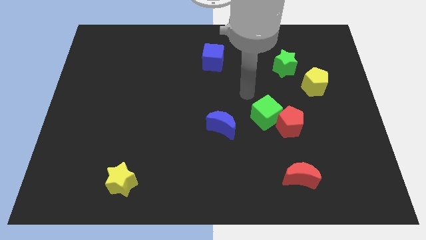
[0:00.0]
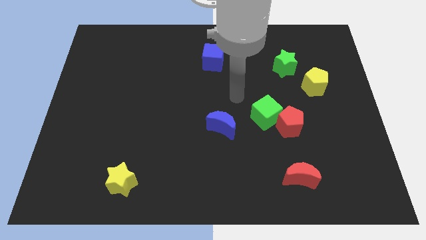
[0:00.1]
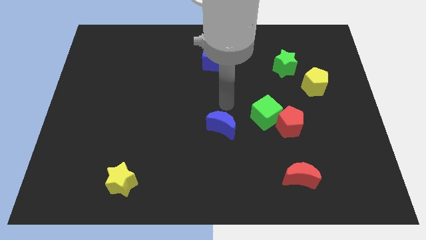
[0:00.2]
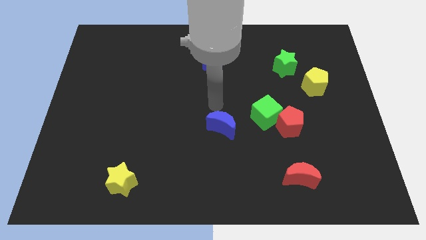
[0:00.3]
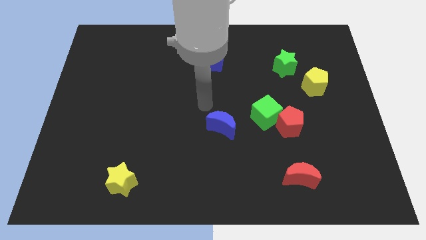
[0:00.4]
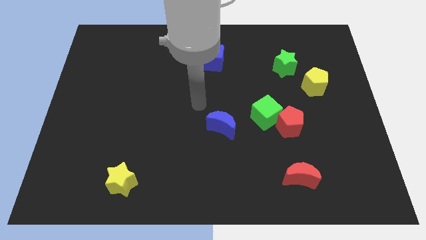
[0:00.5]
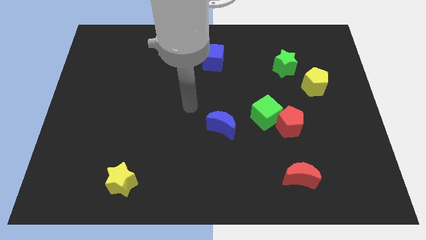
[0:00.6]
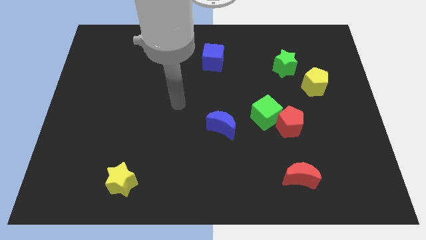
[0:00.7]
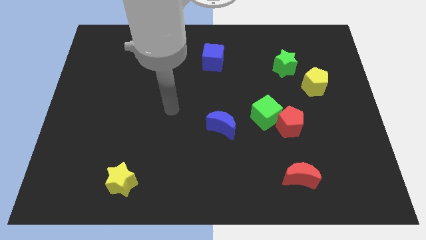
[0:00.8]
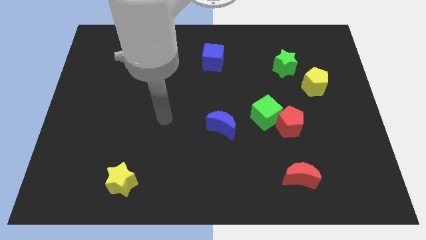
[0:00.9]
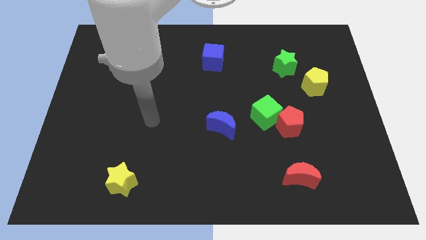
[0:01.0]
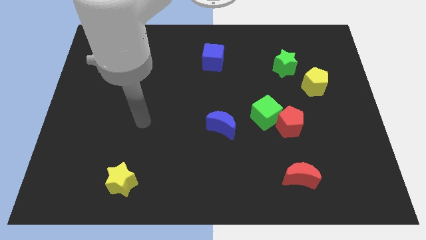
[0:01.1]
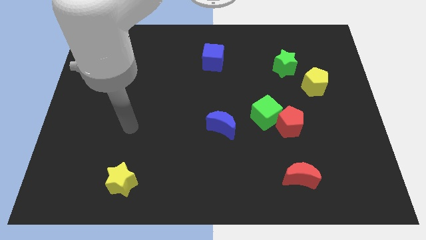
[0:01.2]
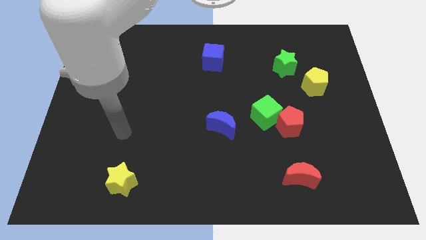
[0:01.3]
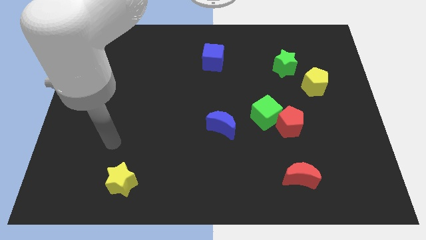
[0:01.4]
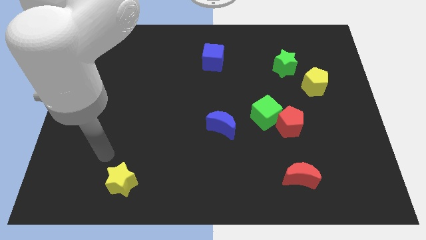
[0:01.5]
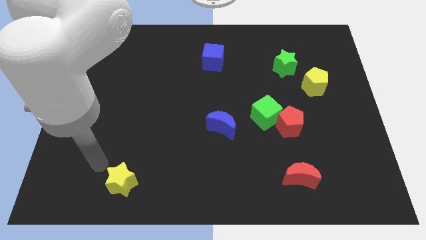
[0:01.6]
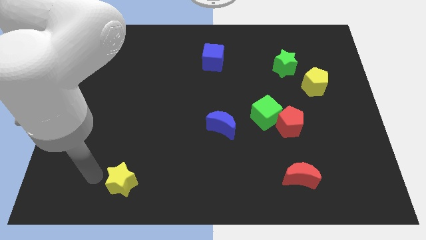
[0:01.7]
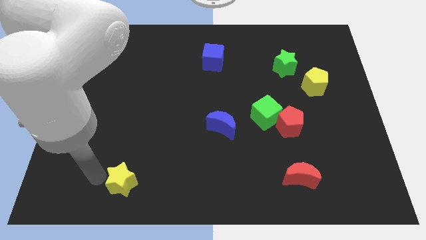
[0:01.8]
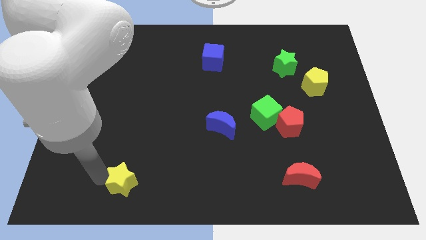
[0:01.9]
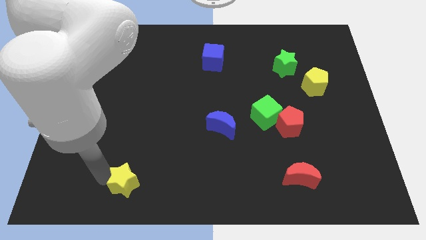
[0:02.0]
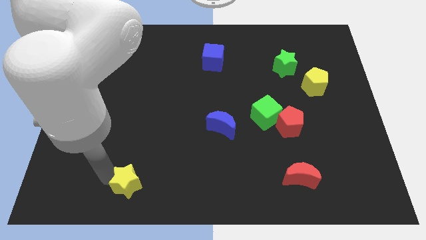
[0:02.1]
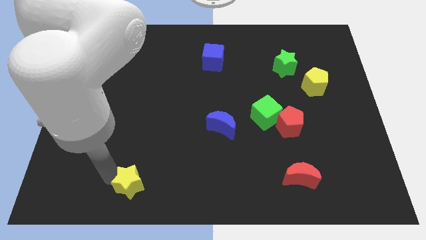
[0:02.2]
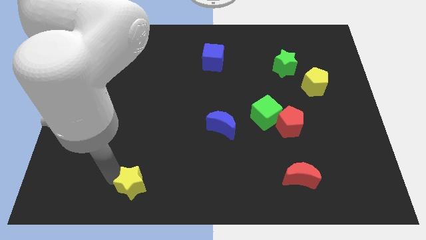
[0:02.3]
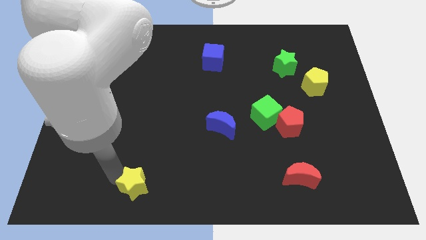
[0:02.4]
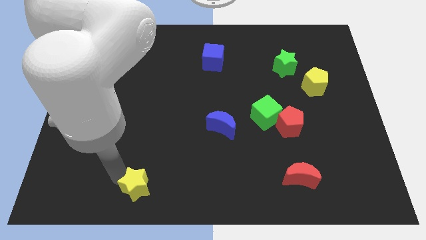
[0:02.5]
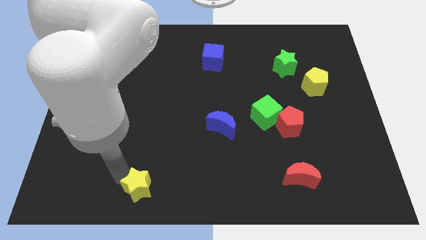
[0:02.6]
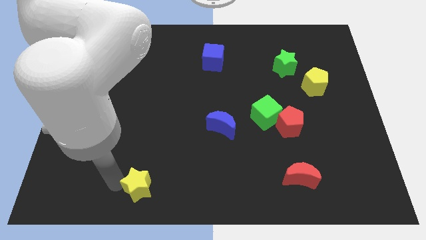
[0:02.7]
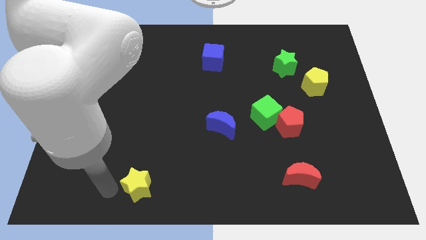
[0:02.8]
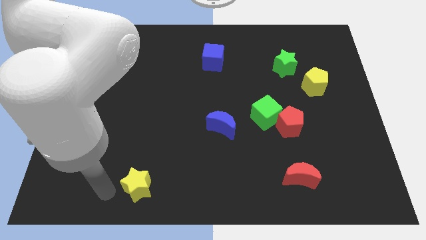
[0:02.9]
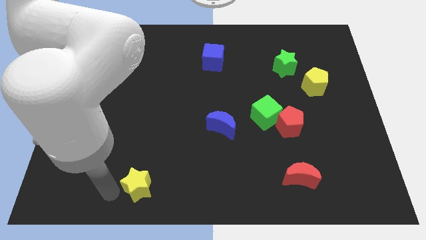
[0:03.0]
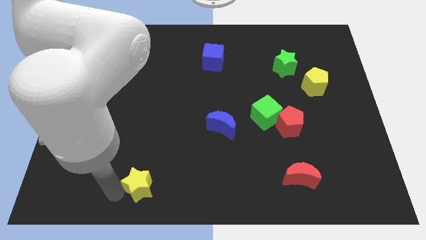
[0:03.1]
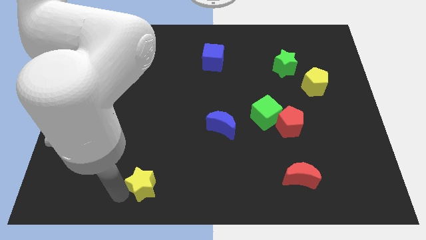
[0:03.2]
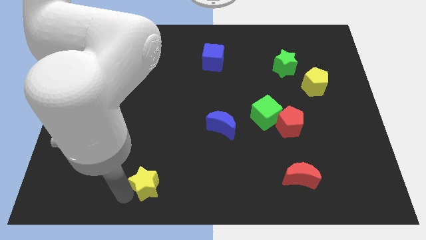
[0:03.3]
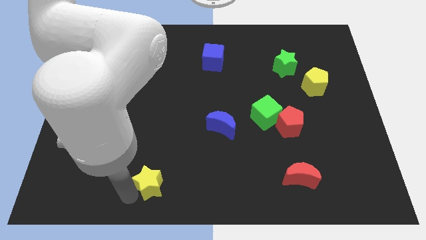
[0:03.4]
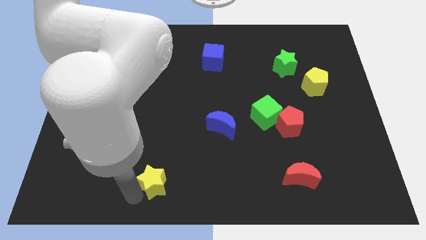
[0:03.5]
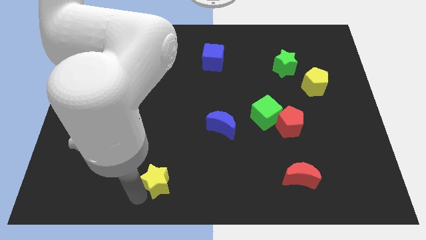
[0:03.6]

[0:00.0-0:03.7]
move the yellow star right somewhat

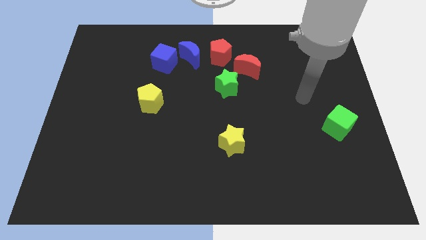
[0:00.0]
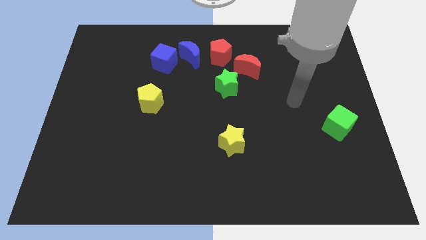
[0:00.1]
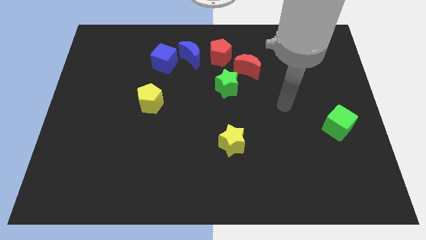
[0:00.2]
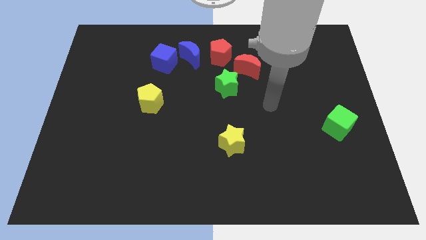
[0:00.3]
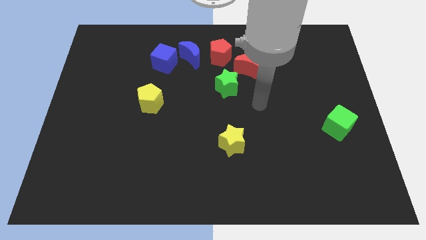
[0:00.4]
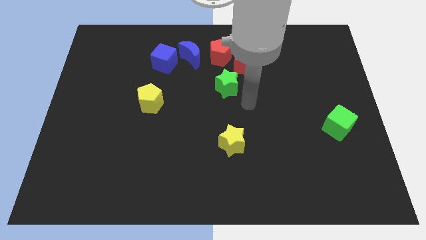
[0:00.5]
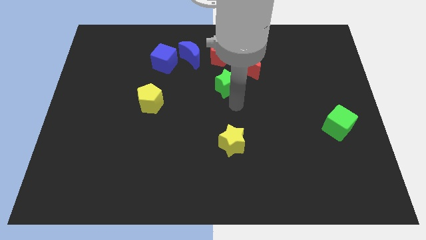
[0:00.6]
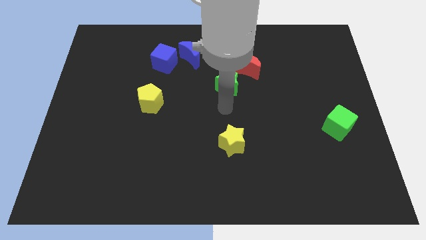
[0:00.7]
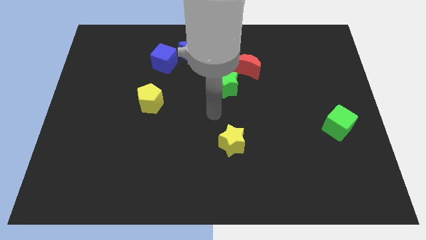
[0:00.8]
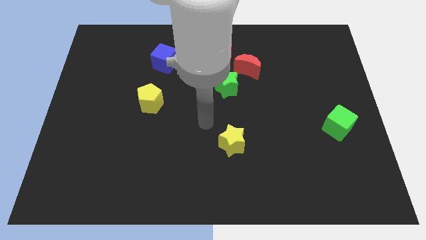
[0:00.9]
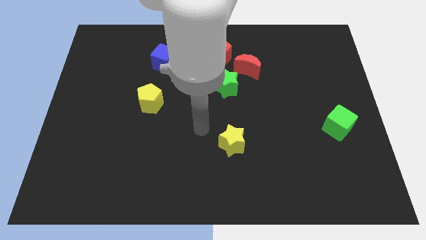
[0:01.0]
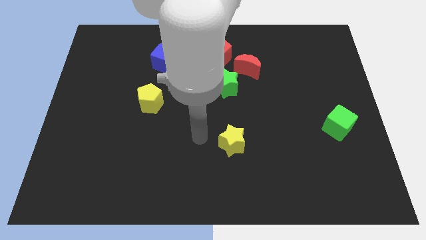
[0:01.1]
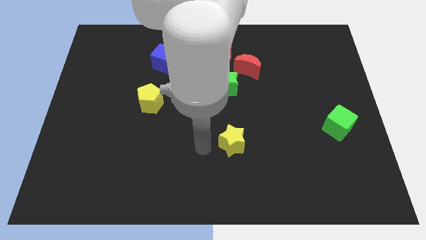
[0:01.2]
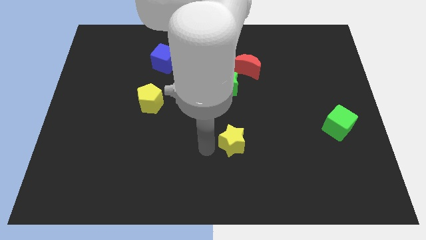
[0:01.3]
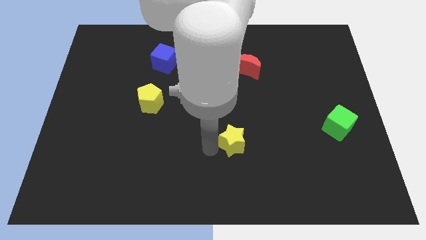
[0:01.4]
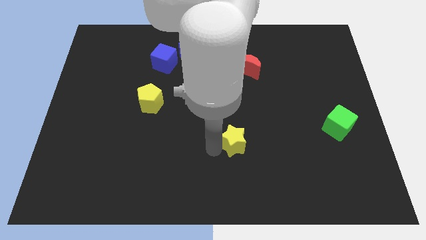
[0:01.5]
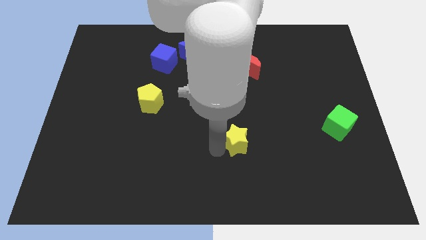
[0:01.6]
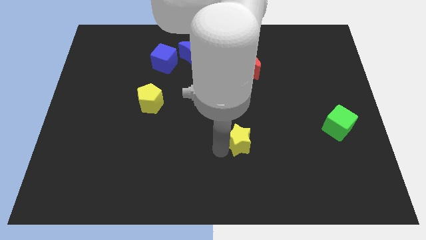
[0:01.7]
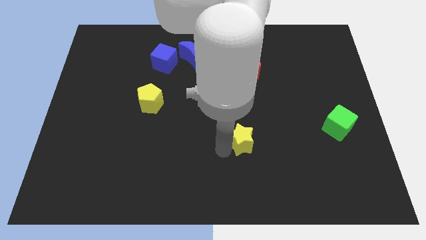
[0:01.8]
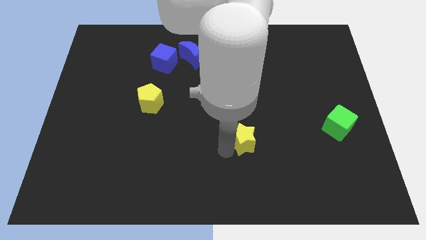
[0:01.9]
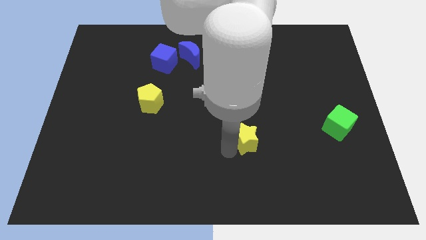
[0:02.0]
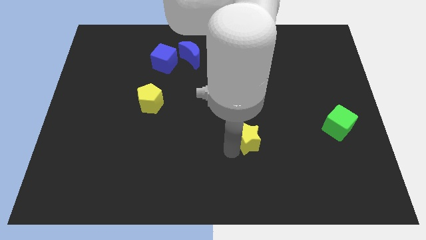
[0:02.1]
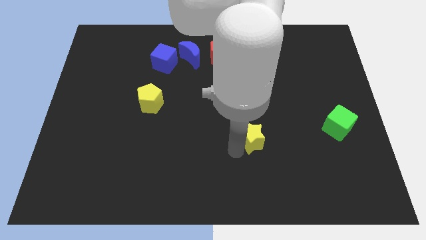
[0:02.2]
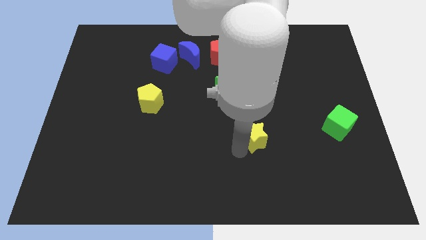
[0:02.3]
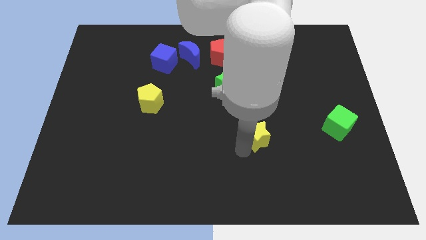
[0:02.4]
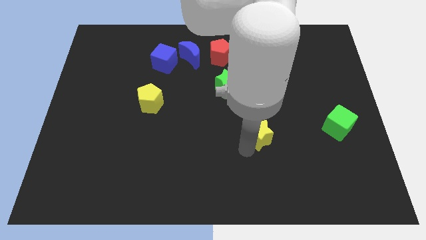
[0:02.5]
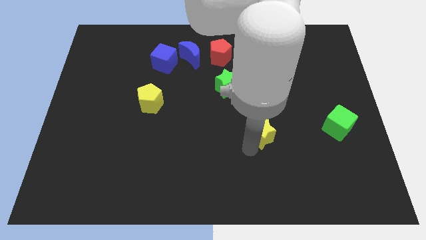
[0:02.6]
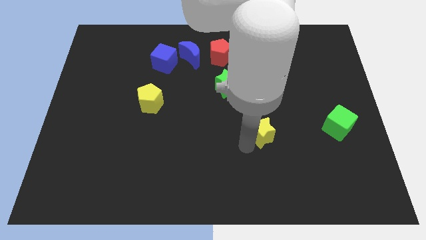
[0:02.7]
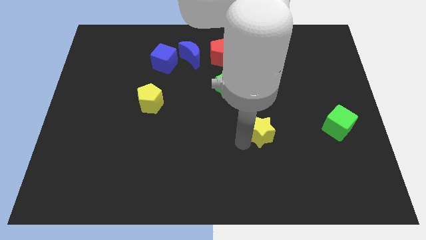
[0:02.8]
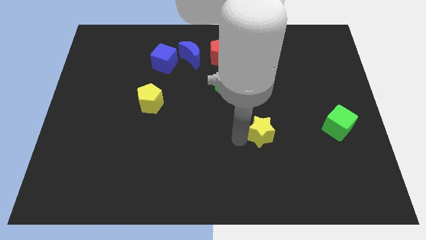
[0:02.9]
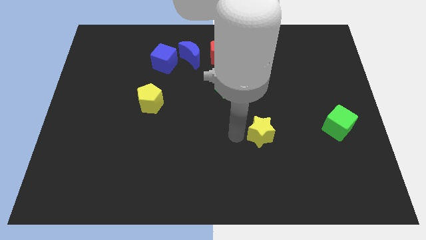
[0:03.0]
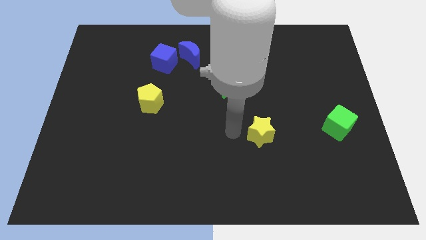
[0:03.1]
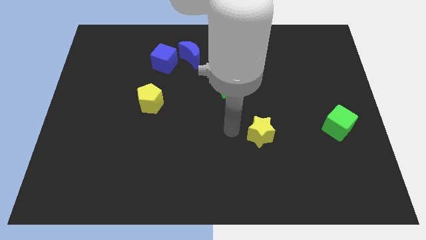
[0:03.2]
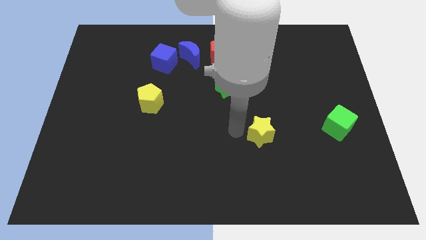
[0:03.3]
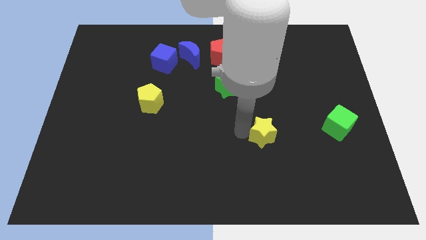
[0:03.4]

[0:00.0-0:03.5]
move the yellow star a little bit right

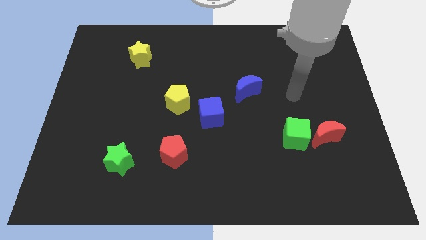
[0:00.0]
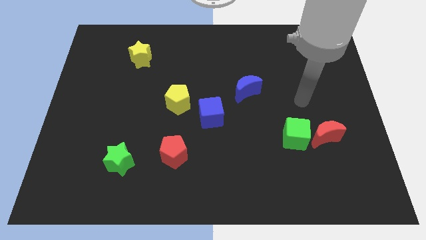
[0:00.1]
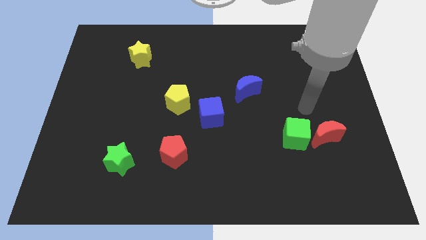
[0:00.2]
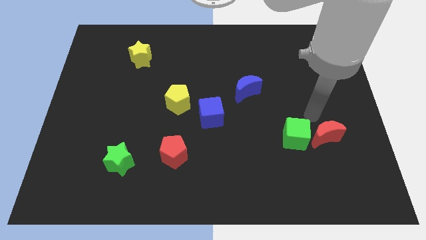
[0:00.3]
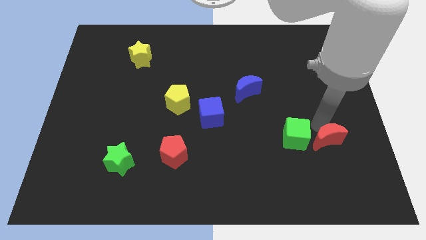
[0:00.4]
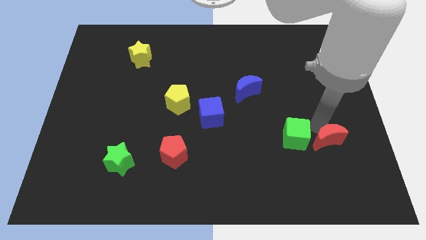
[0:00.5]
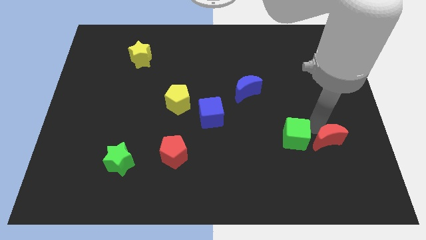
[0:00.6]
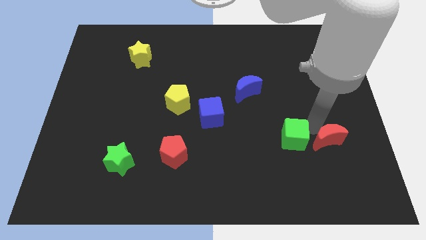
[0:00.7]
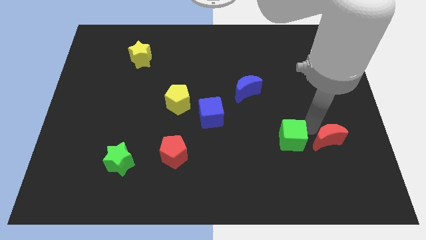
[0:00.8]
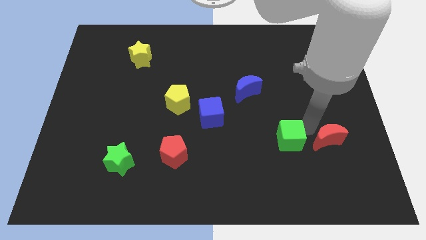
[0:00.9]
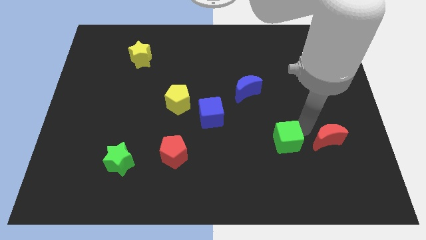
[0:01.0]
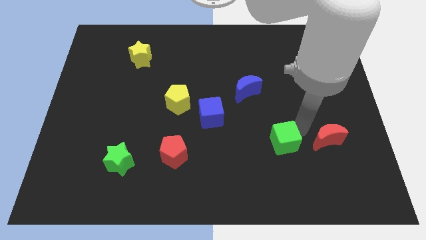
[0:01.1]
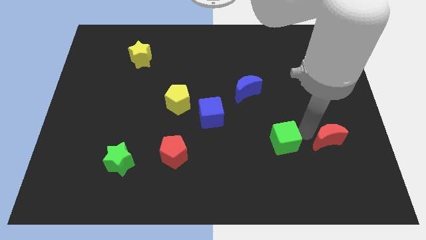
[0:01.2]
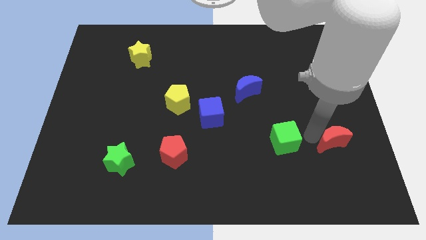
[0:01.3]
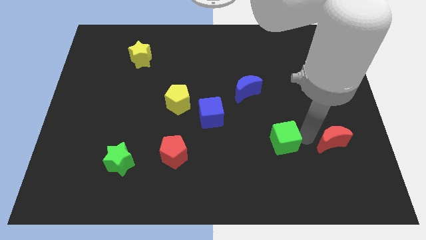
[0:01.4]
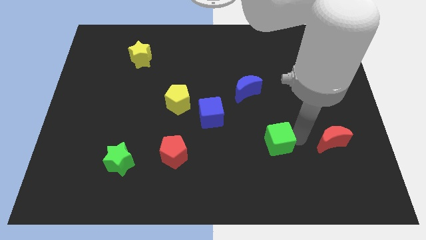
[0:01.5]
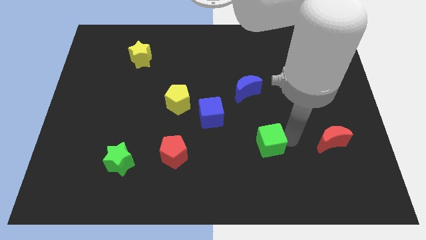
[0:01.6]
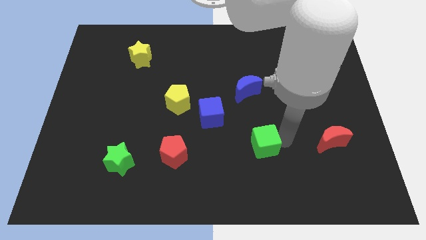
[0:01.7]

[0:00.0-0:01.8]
slightly slide the green cube left
